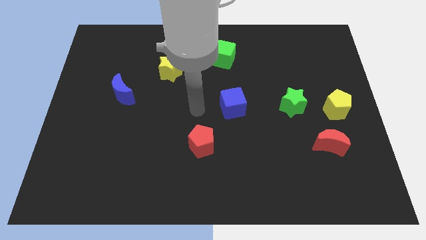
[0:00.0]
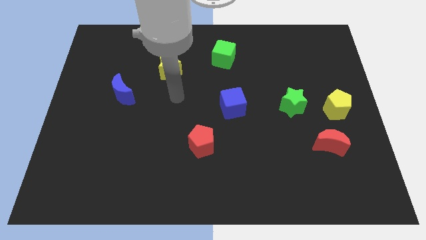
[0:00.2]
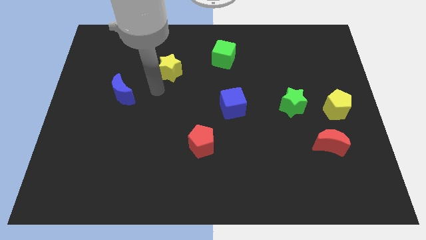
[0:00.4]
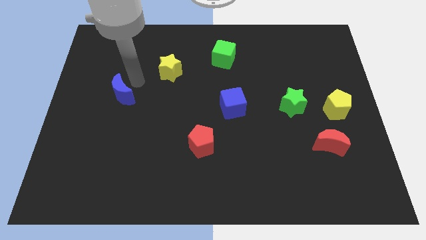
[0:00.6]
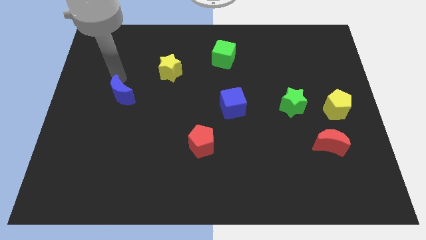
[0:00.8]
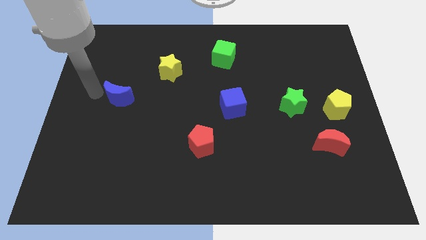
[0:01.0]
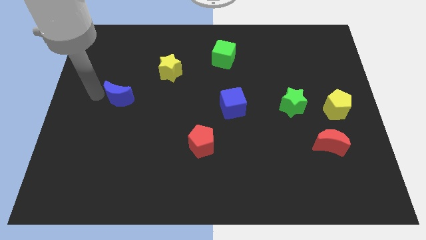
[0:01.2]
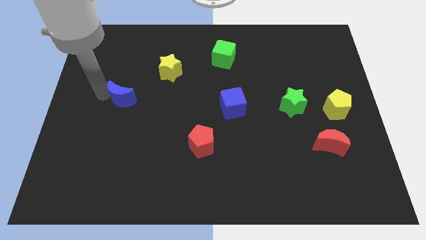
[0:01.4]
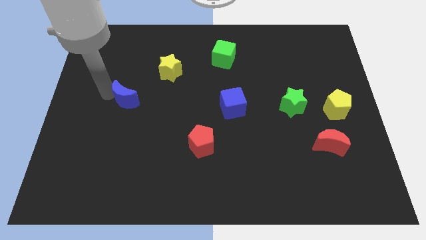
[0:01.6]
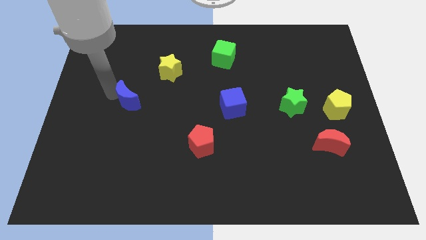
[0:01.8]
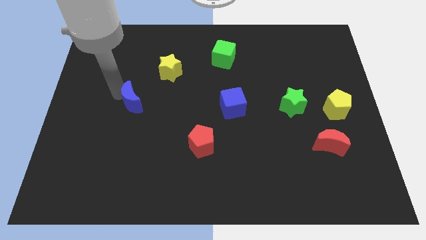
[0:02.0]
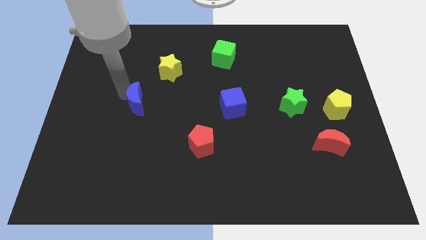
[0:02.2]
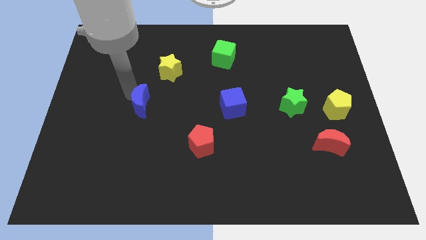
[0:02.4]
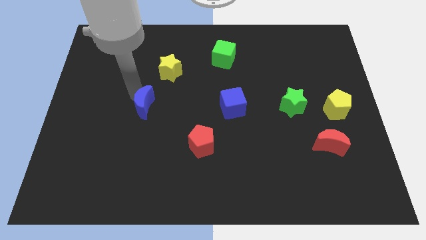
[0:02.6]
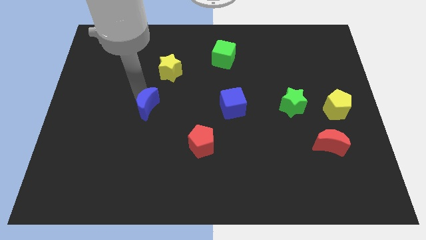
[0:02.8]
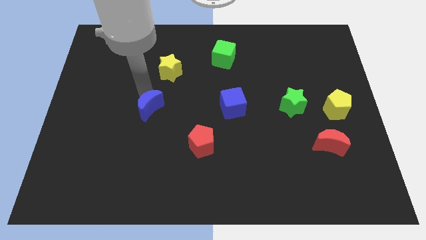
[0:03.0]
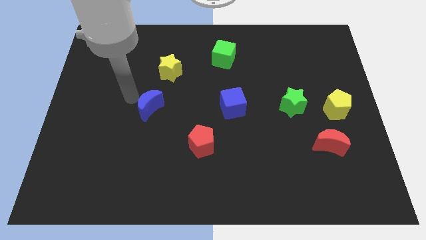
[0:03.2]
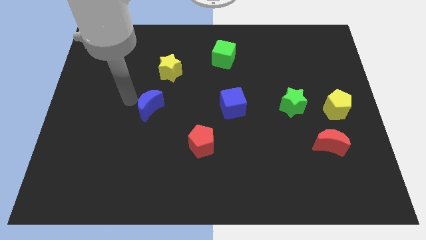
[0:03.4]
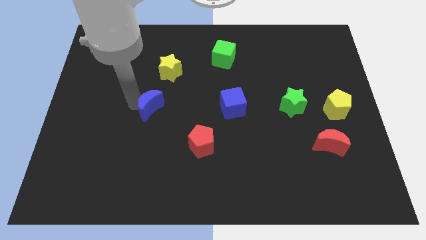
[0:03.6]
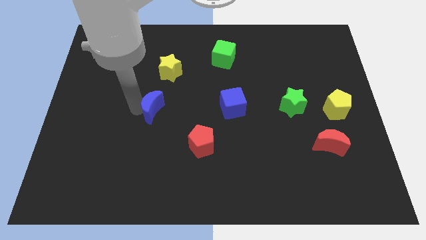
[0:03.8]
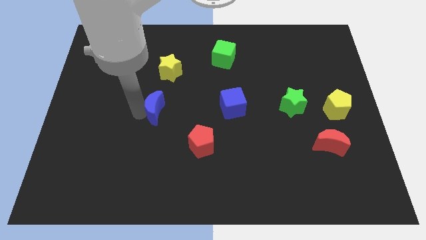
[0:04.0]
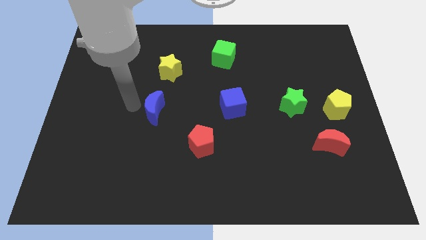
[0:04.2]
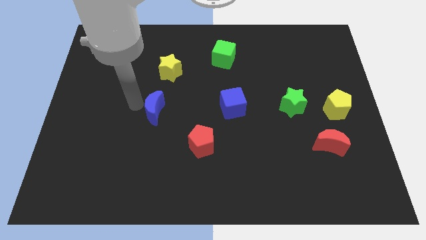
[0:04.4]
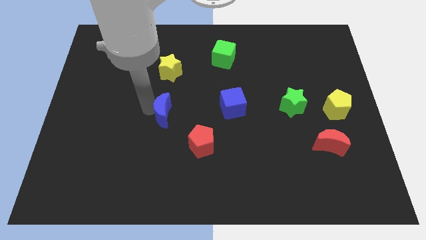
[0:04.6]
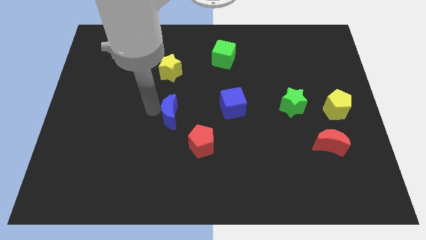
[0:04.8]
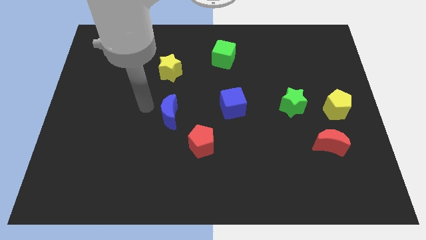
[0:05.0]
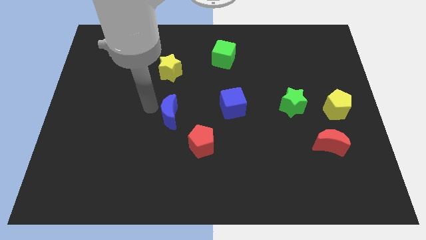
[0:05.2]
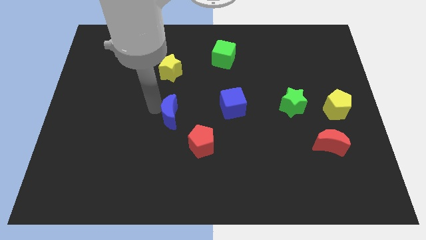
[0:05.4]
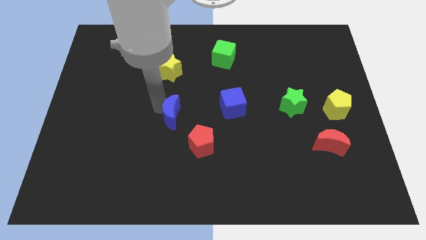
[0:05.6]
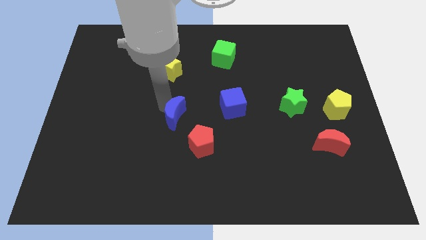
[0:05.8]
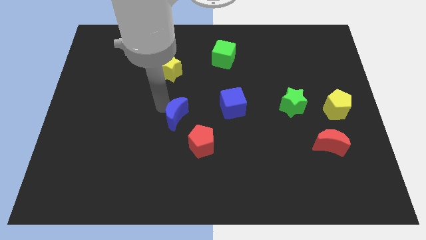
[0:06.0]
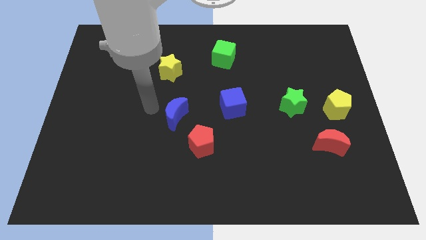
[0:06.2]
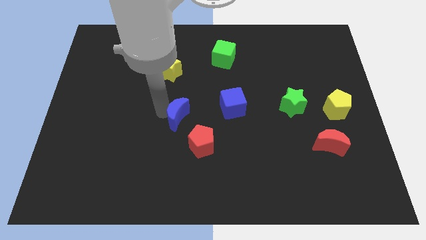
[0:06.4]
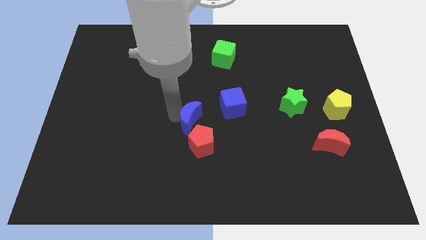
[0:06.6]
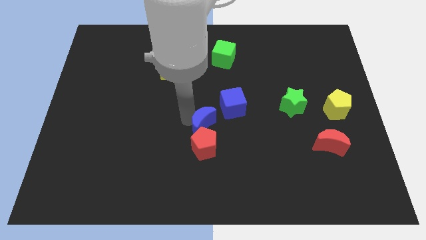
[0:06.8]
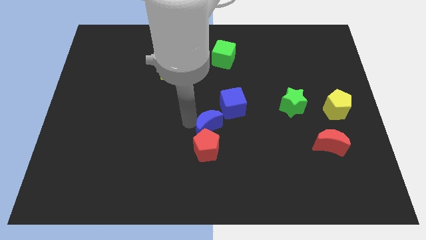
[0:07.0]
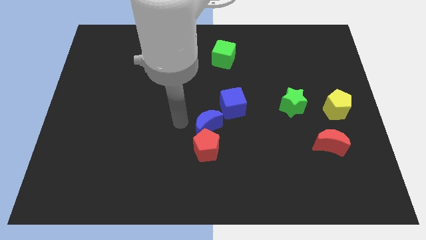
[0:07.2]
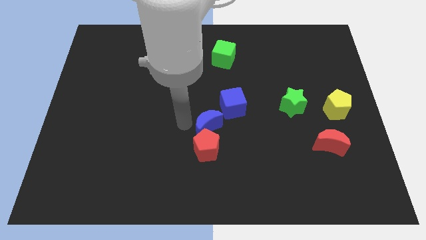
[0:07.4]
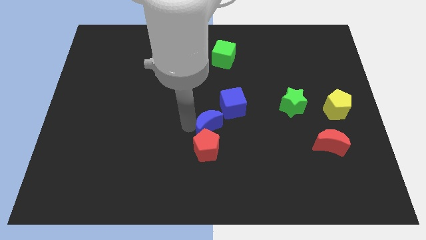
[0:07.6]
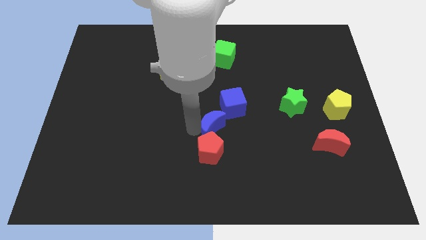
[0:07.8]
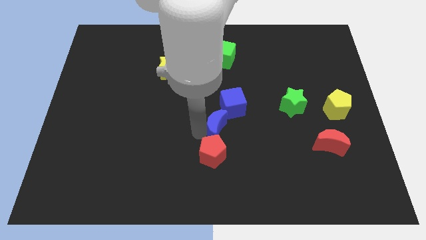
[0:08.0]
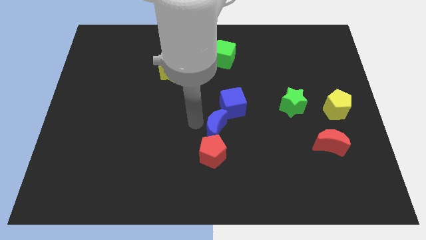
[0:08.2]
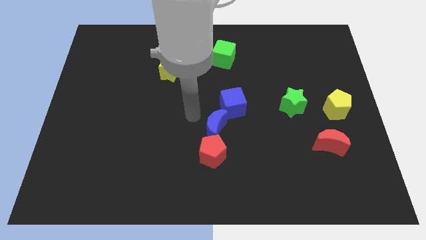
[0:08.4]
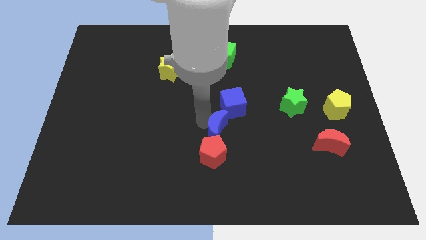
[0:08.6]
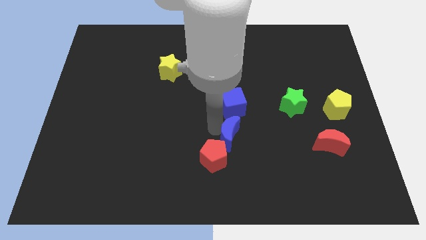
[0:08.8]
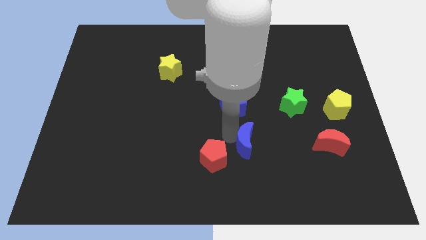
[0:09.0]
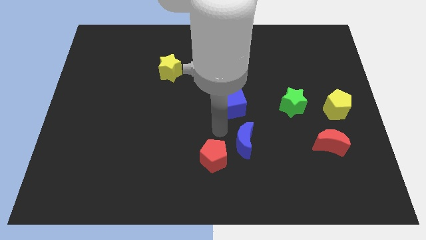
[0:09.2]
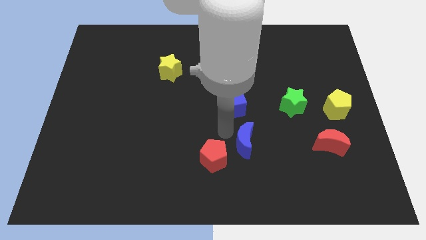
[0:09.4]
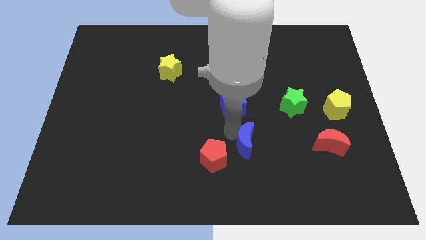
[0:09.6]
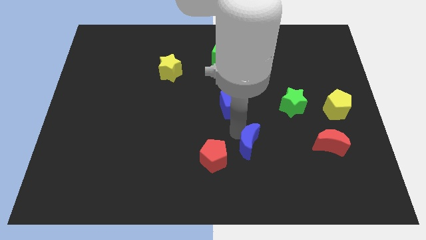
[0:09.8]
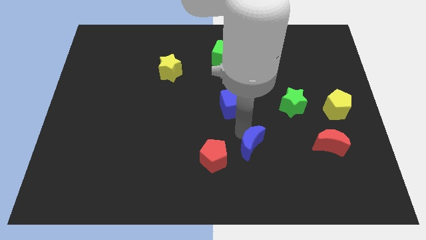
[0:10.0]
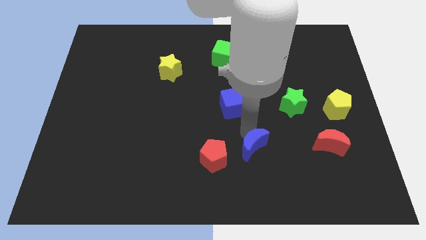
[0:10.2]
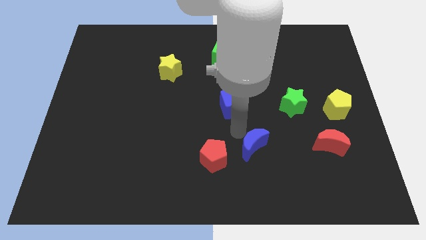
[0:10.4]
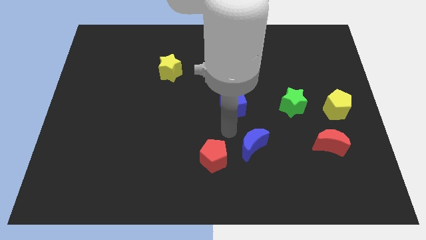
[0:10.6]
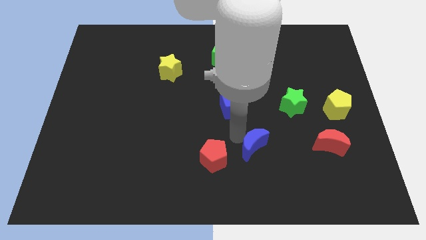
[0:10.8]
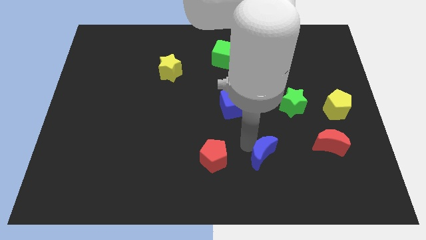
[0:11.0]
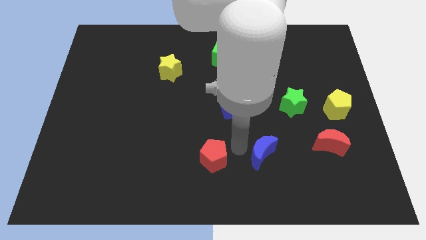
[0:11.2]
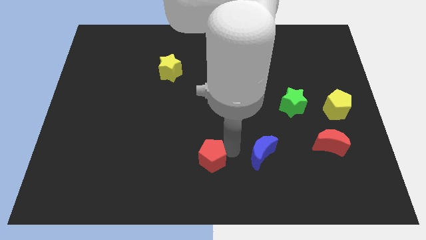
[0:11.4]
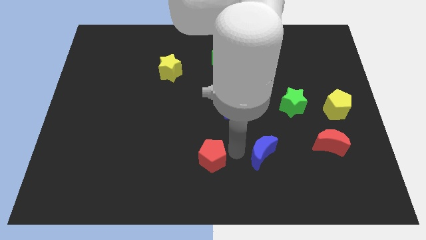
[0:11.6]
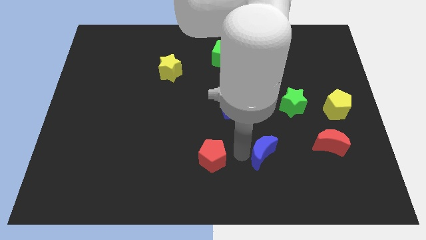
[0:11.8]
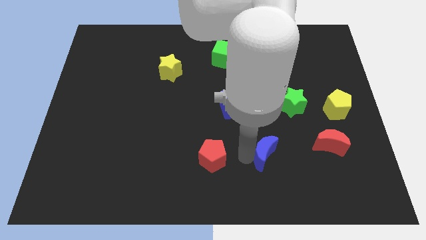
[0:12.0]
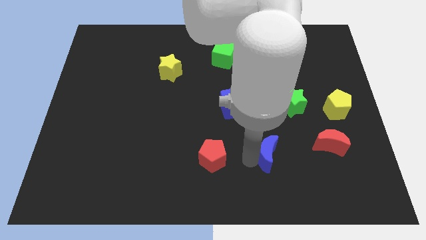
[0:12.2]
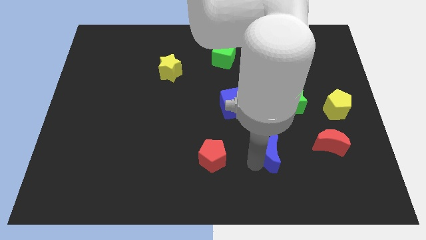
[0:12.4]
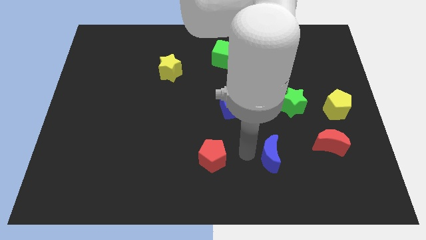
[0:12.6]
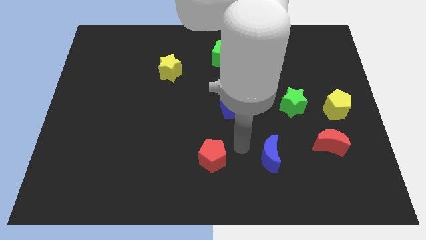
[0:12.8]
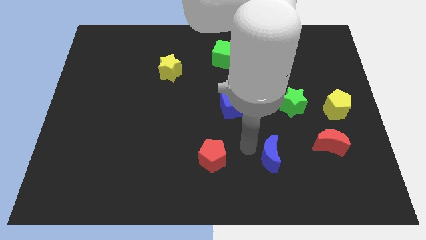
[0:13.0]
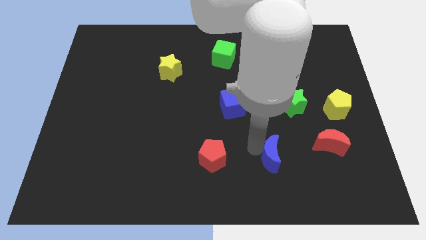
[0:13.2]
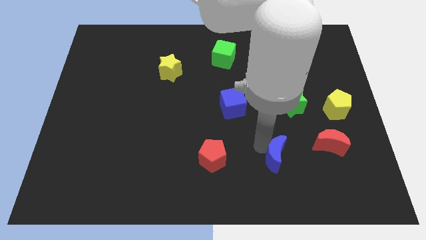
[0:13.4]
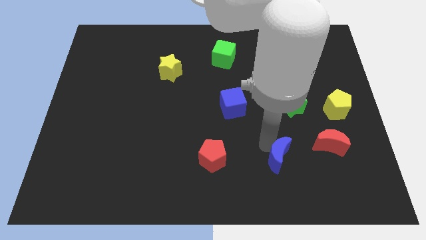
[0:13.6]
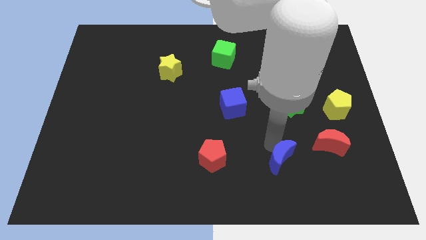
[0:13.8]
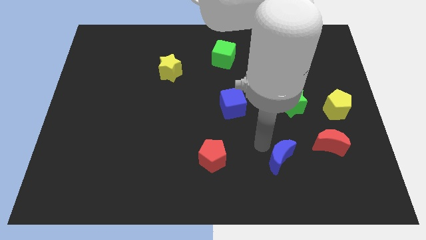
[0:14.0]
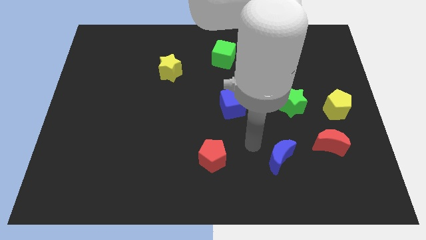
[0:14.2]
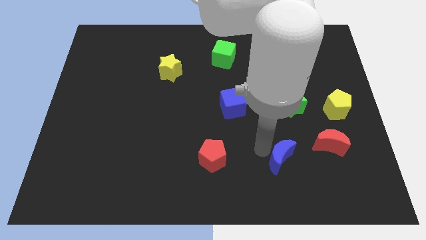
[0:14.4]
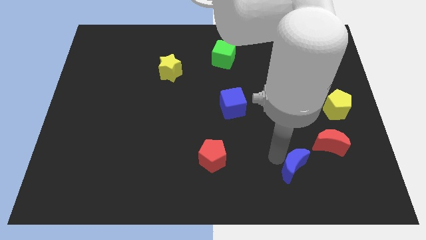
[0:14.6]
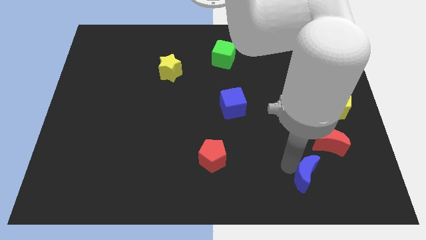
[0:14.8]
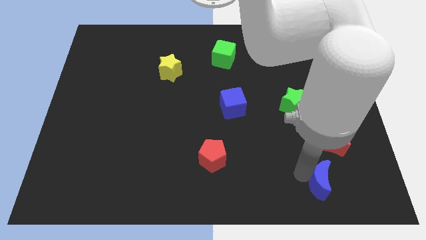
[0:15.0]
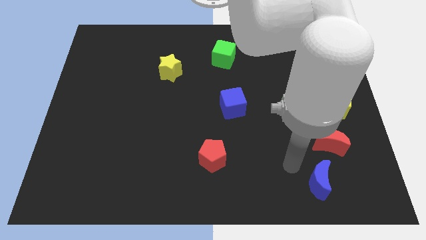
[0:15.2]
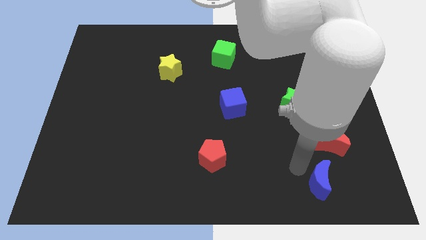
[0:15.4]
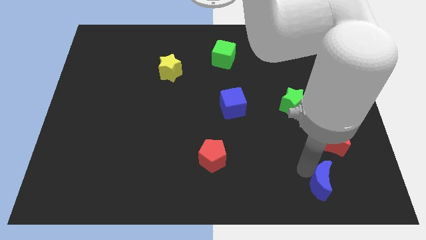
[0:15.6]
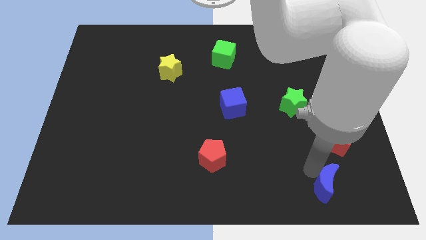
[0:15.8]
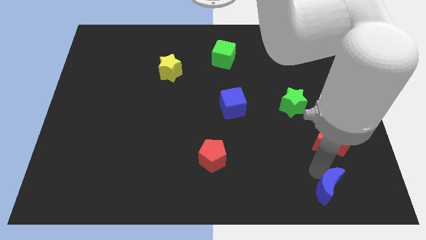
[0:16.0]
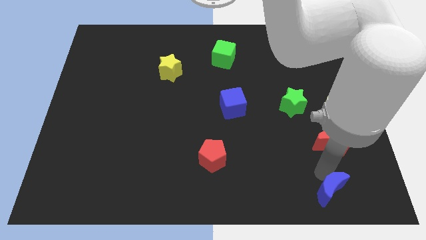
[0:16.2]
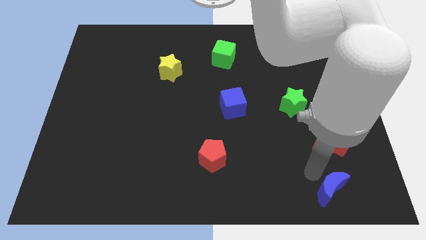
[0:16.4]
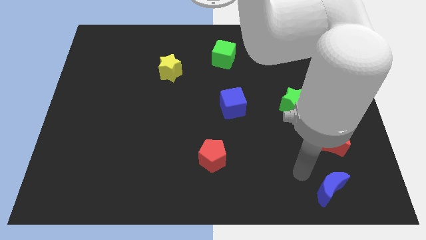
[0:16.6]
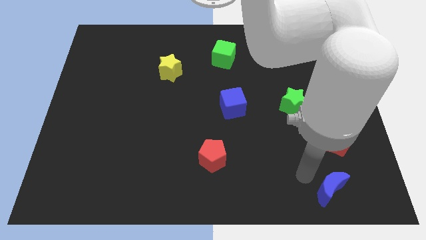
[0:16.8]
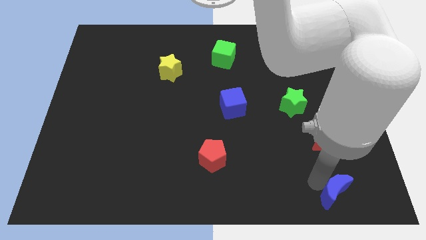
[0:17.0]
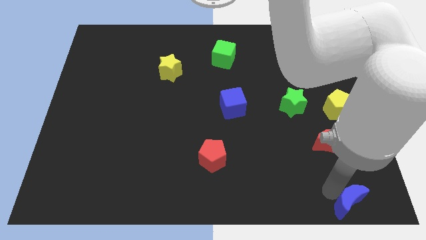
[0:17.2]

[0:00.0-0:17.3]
put the blue moon to the bottom right of the board
